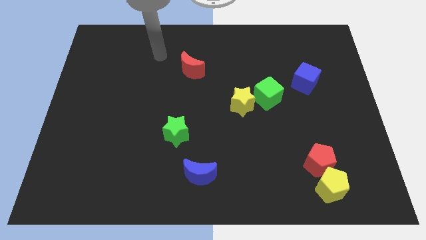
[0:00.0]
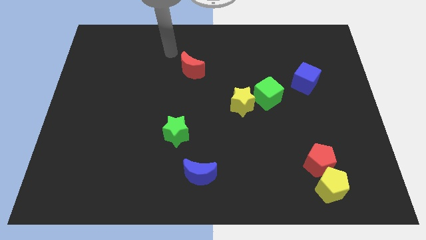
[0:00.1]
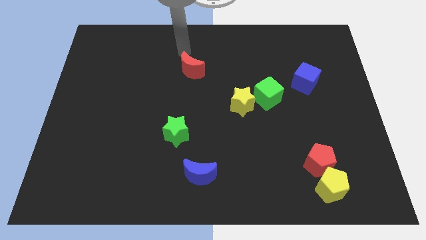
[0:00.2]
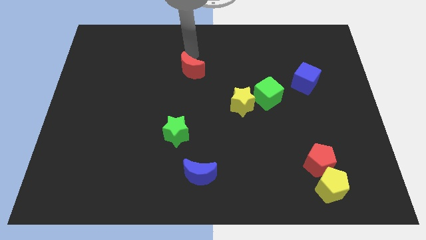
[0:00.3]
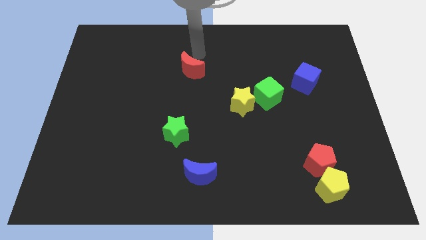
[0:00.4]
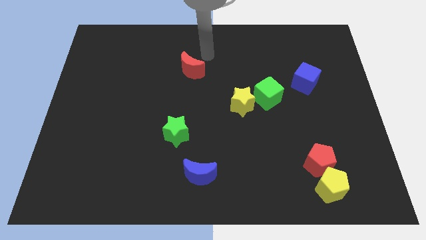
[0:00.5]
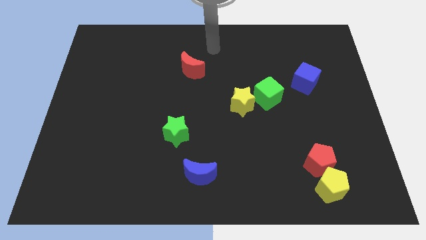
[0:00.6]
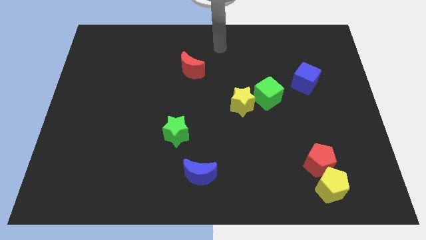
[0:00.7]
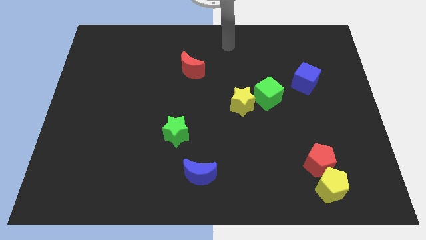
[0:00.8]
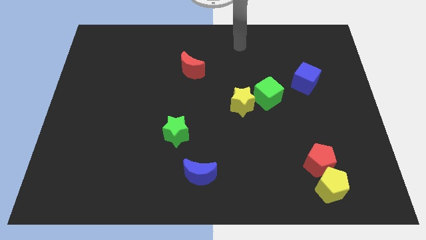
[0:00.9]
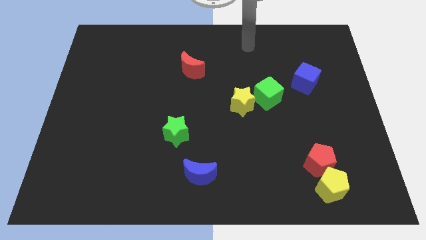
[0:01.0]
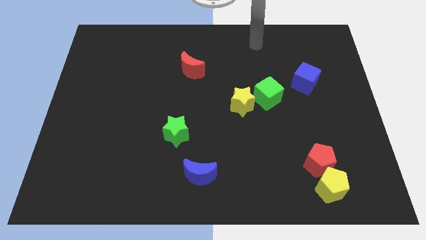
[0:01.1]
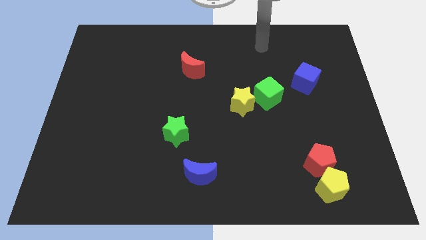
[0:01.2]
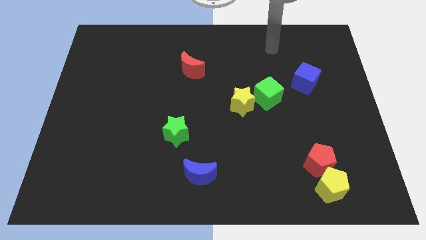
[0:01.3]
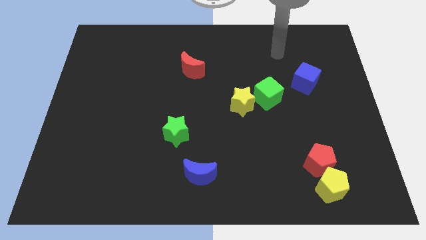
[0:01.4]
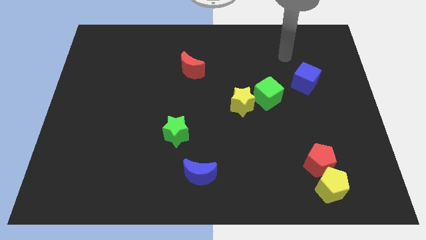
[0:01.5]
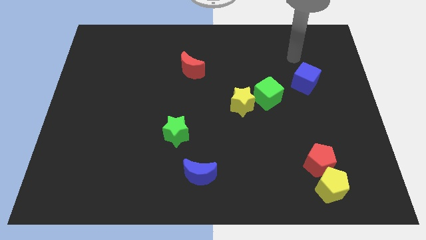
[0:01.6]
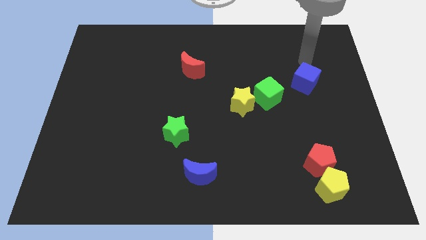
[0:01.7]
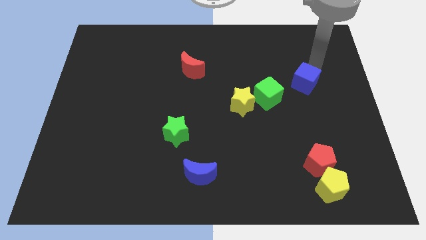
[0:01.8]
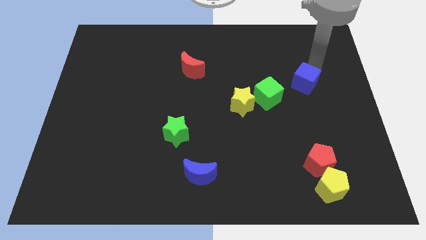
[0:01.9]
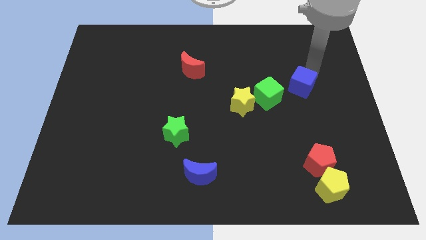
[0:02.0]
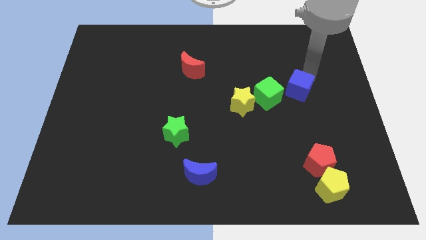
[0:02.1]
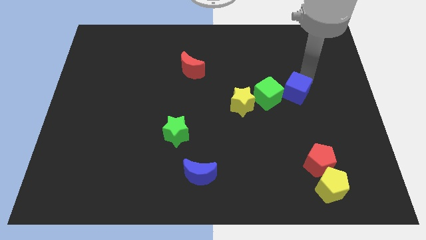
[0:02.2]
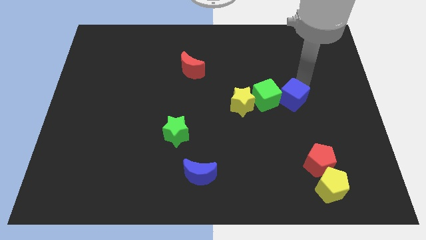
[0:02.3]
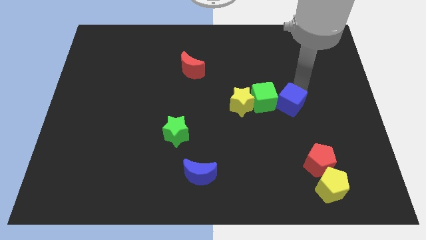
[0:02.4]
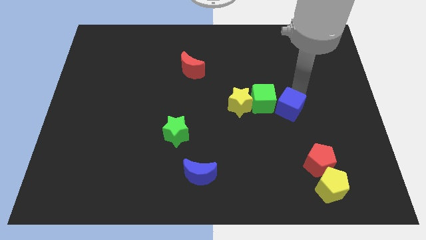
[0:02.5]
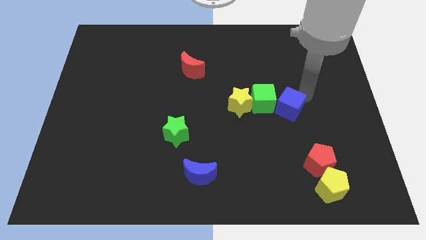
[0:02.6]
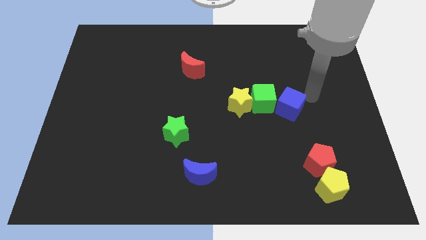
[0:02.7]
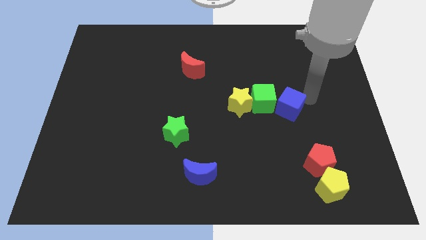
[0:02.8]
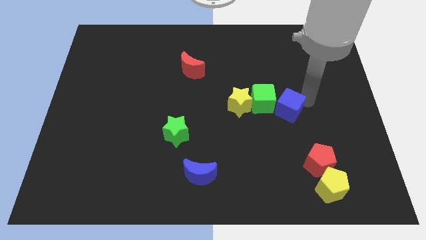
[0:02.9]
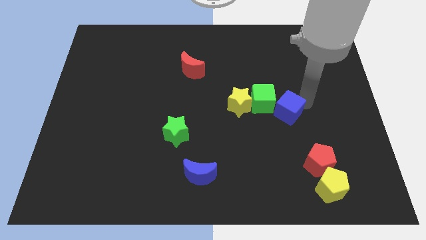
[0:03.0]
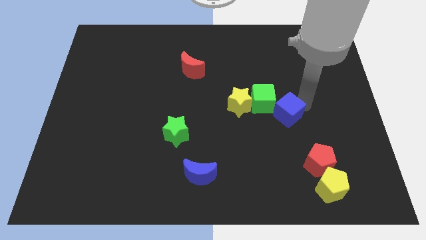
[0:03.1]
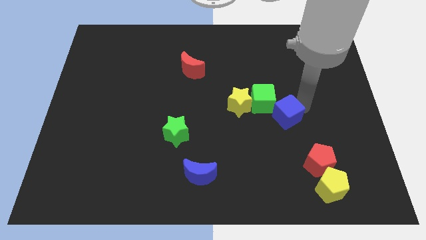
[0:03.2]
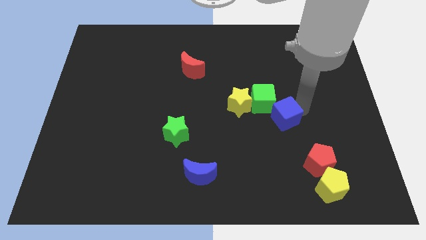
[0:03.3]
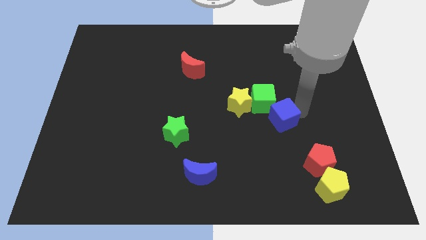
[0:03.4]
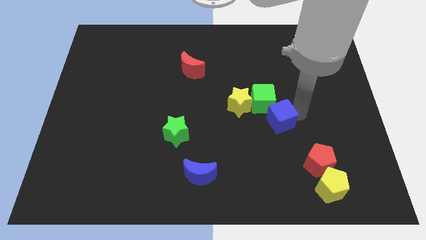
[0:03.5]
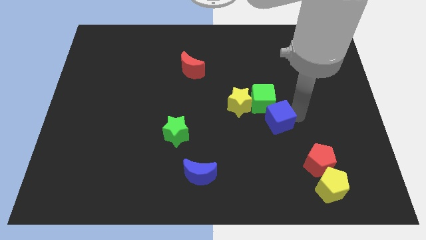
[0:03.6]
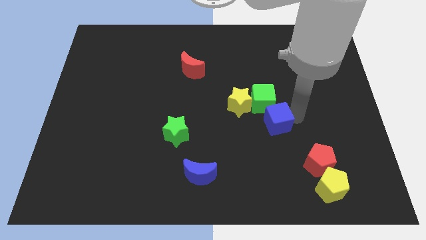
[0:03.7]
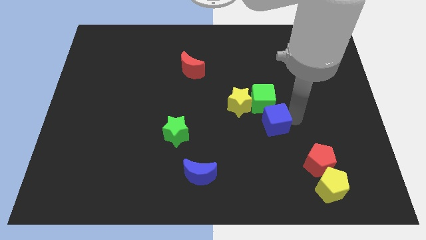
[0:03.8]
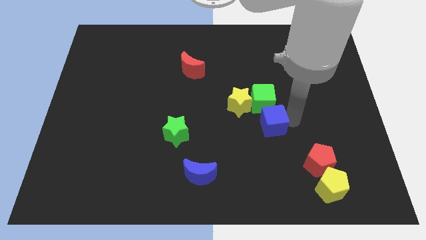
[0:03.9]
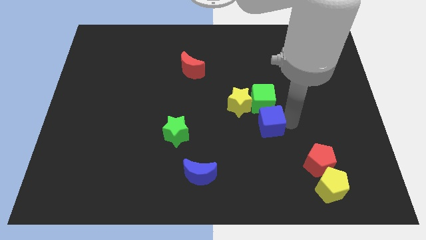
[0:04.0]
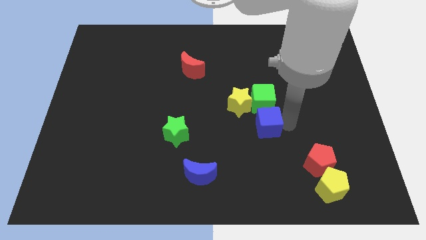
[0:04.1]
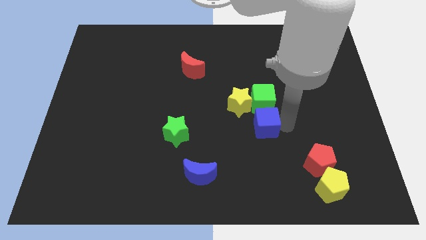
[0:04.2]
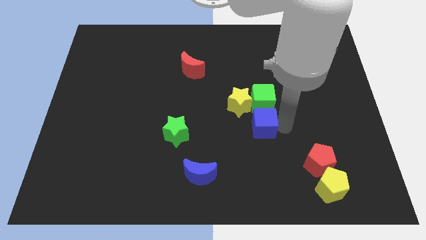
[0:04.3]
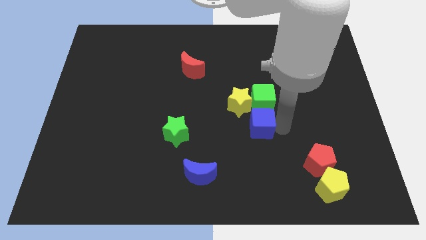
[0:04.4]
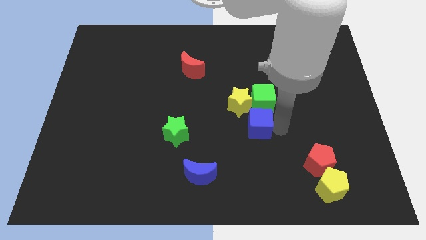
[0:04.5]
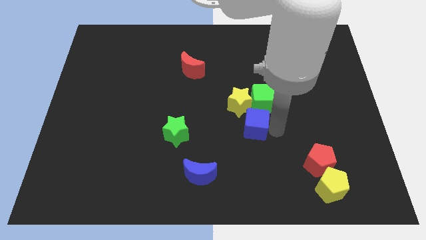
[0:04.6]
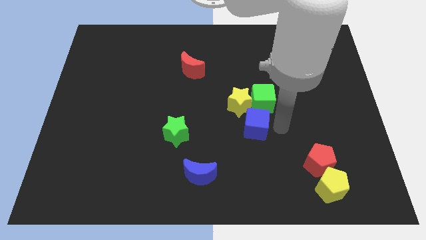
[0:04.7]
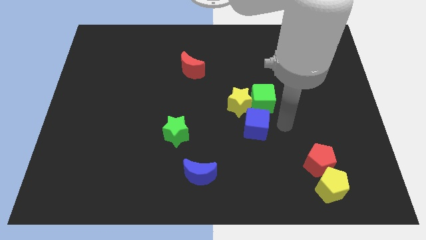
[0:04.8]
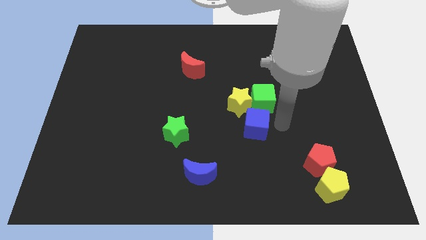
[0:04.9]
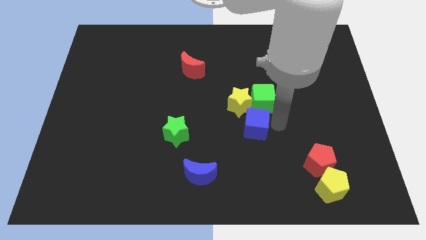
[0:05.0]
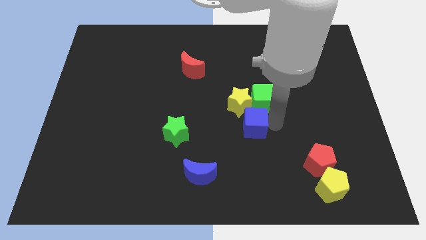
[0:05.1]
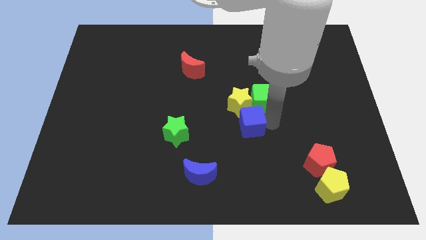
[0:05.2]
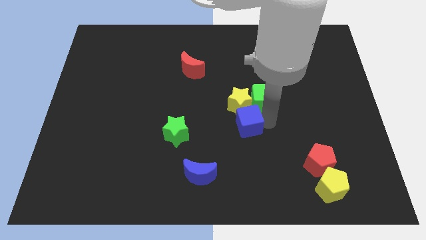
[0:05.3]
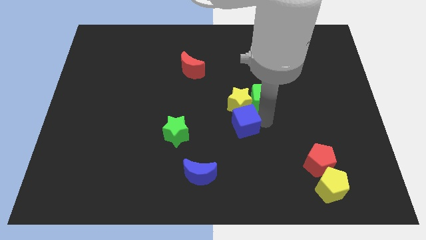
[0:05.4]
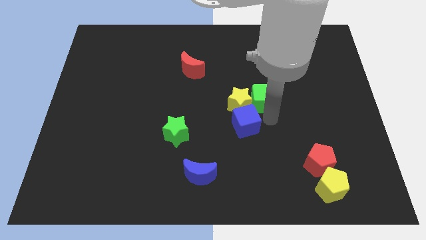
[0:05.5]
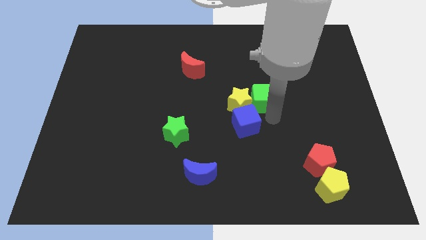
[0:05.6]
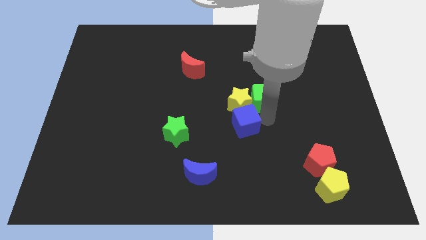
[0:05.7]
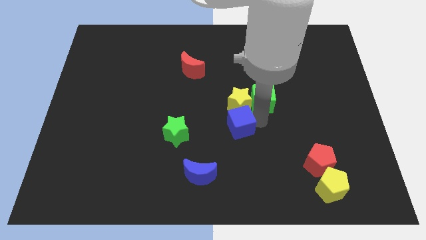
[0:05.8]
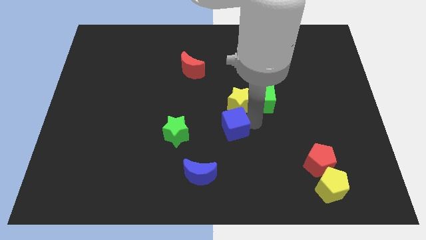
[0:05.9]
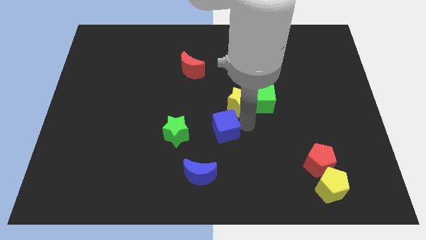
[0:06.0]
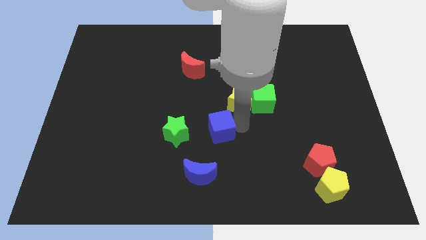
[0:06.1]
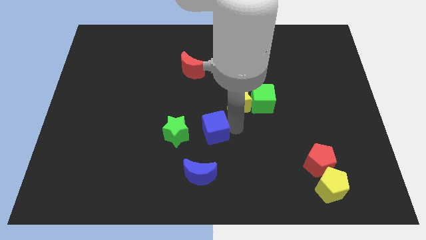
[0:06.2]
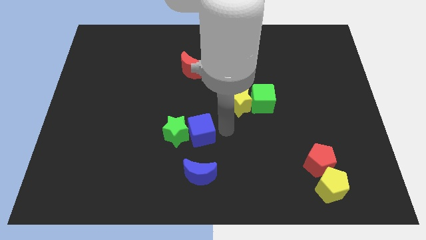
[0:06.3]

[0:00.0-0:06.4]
slide the blue cube close to the green star

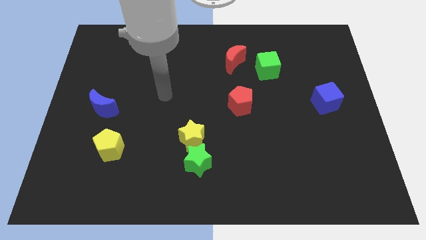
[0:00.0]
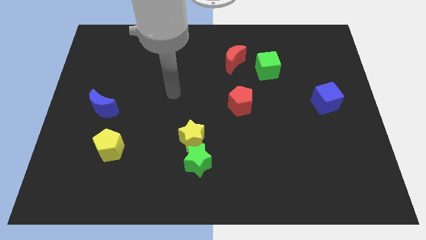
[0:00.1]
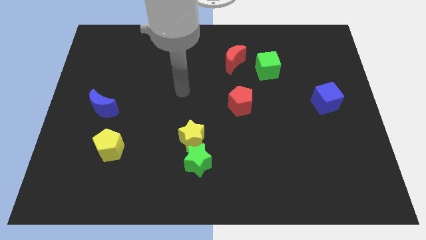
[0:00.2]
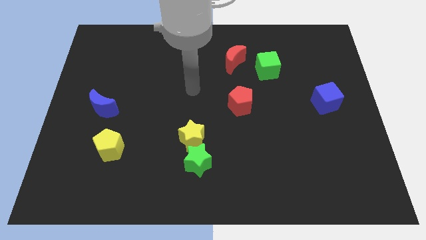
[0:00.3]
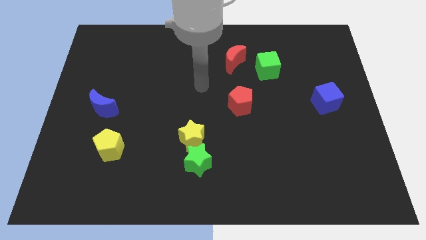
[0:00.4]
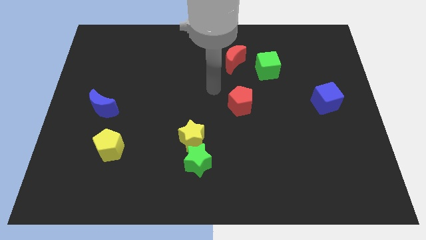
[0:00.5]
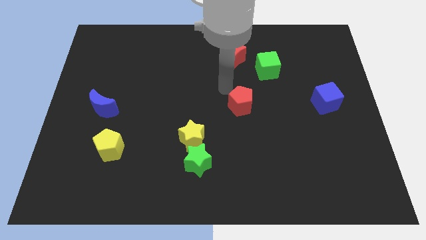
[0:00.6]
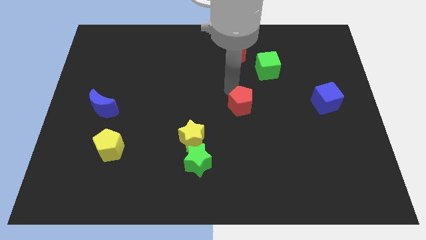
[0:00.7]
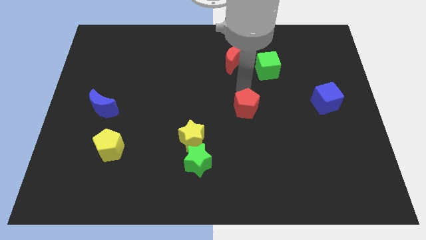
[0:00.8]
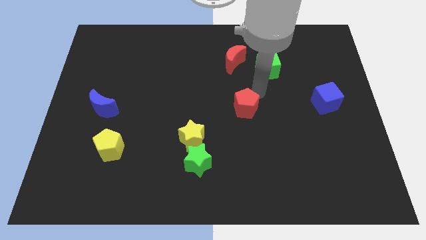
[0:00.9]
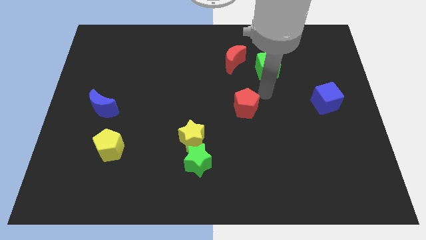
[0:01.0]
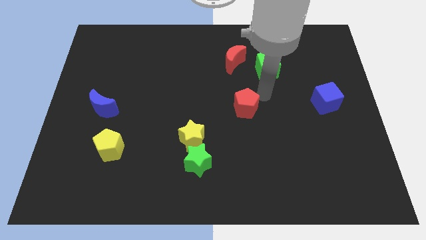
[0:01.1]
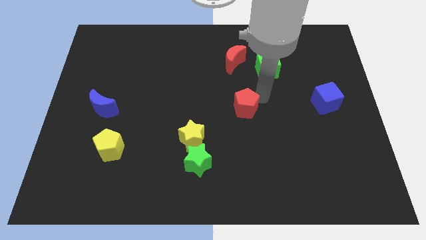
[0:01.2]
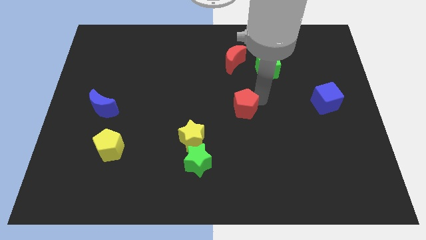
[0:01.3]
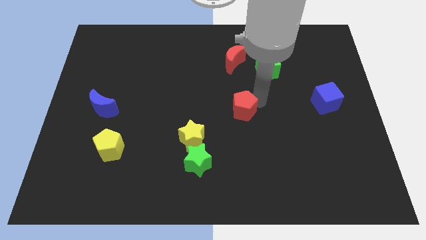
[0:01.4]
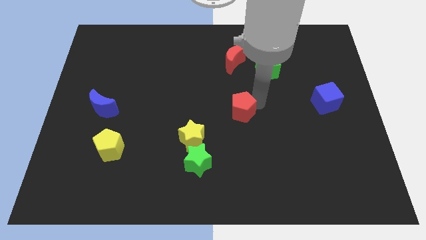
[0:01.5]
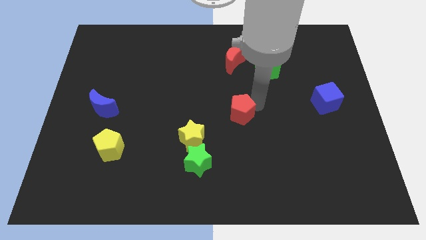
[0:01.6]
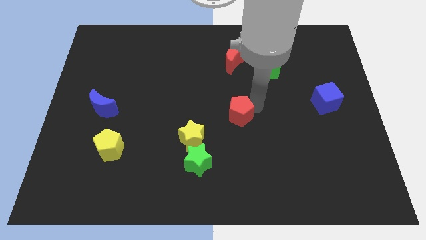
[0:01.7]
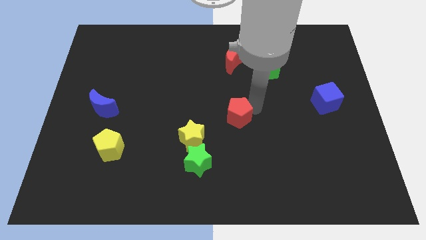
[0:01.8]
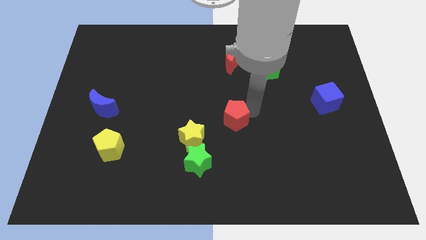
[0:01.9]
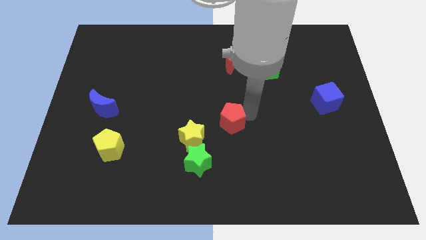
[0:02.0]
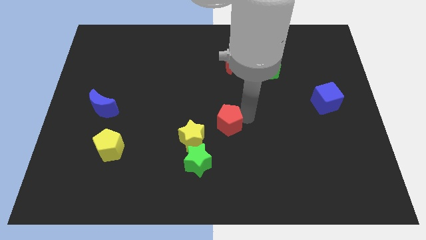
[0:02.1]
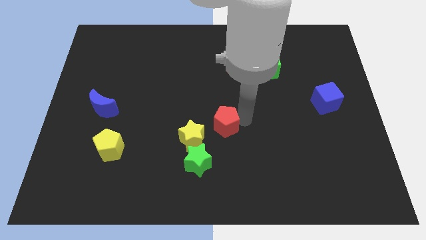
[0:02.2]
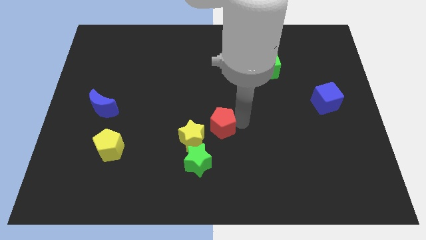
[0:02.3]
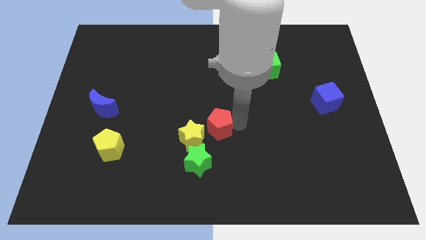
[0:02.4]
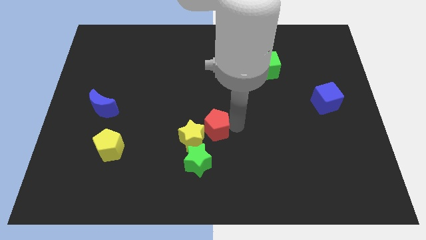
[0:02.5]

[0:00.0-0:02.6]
move the red pentagon towards the yellow star
